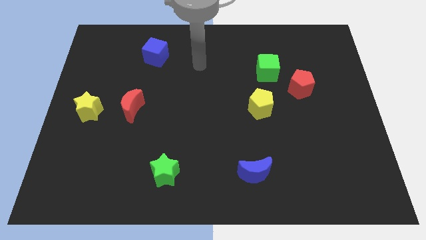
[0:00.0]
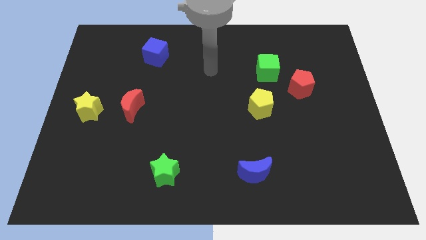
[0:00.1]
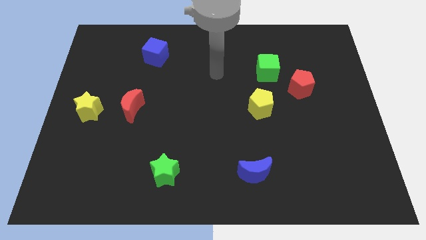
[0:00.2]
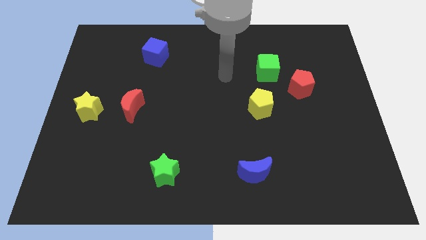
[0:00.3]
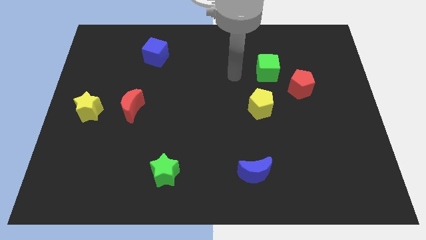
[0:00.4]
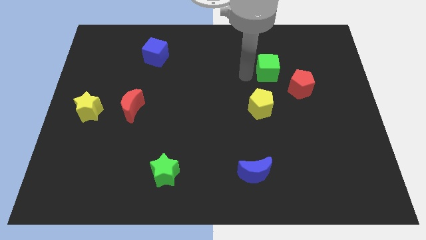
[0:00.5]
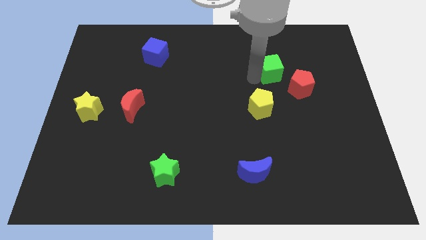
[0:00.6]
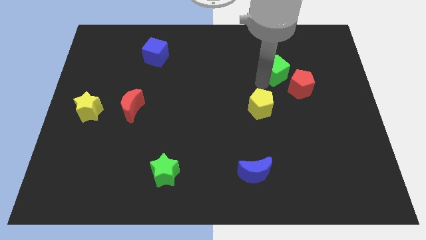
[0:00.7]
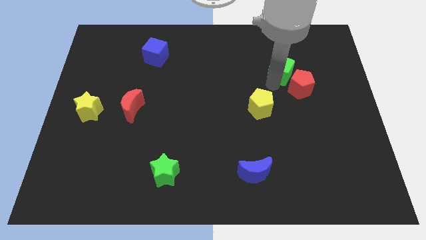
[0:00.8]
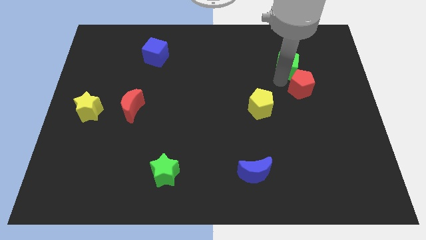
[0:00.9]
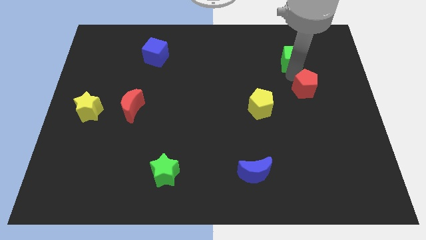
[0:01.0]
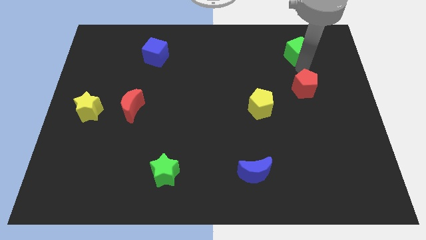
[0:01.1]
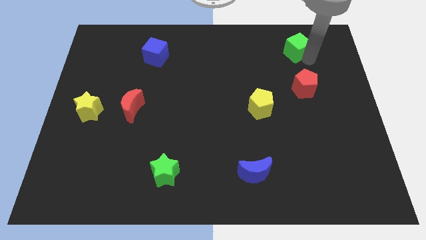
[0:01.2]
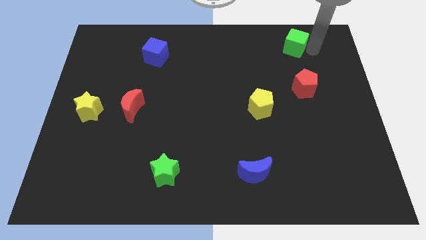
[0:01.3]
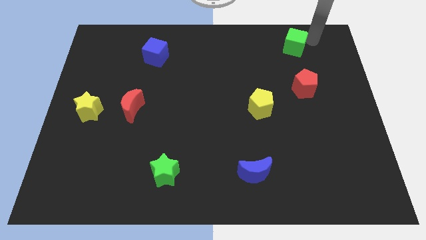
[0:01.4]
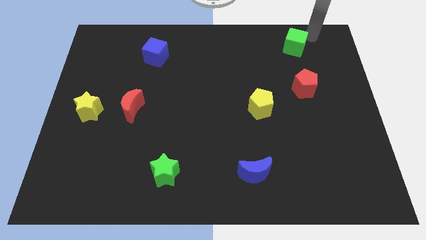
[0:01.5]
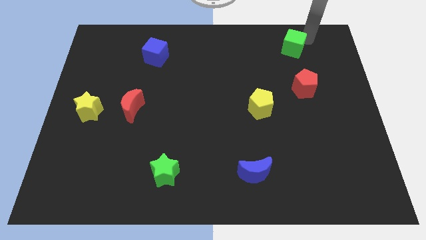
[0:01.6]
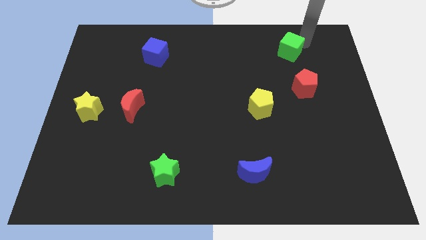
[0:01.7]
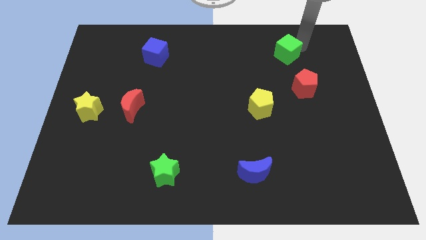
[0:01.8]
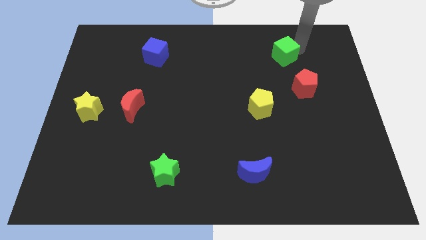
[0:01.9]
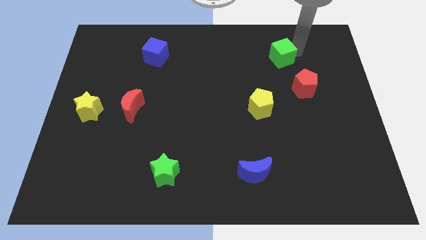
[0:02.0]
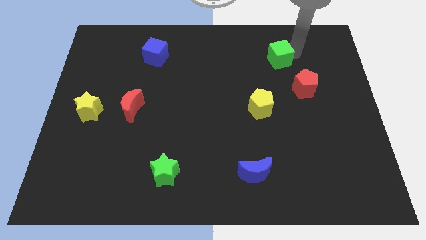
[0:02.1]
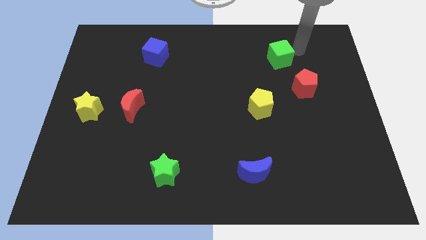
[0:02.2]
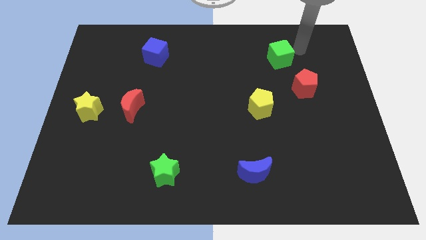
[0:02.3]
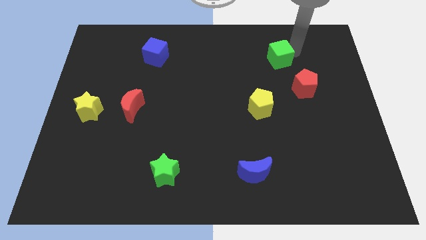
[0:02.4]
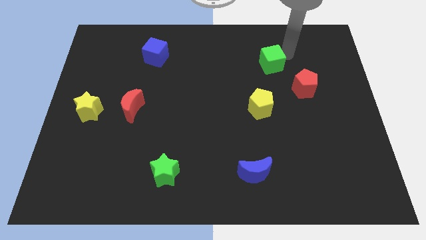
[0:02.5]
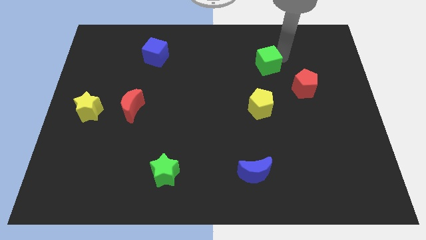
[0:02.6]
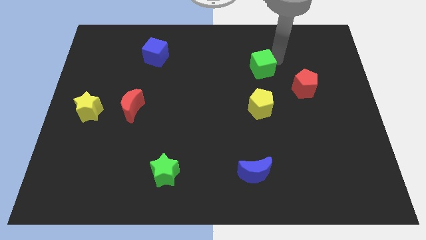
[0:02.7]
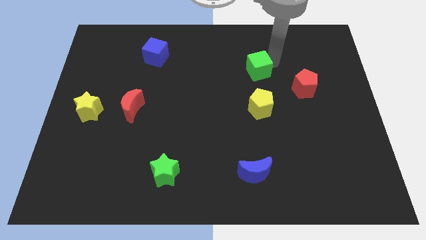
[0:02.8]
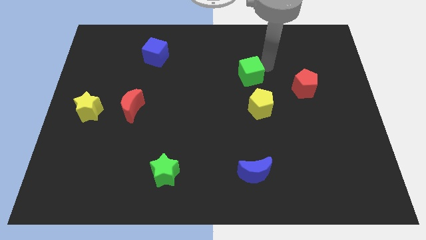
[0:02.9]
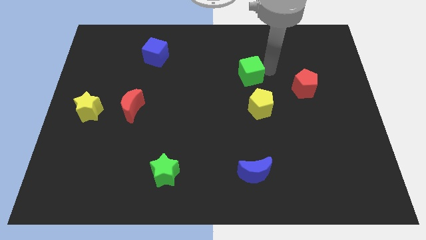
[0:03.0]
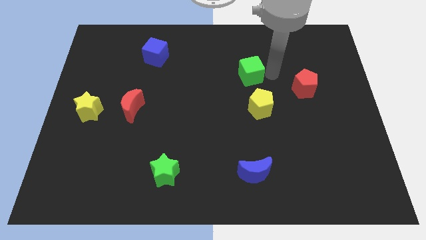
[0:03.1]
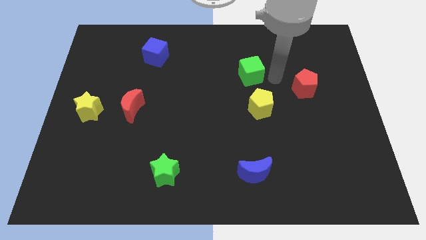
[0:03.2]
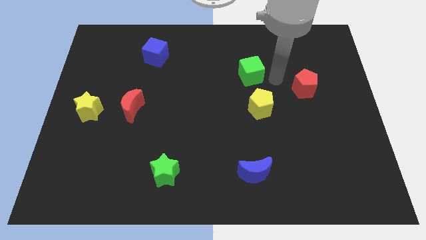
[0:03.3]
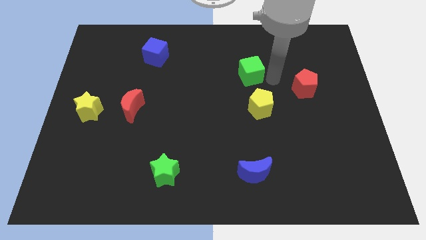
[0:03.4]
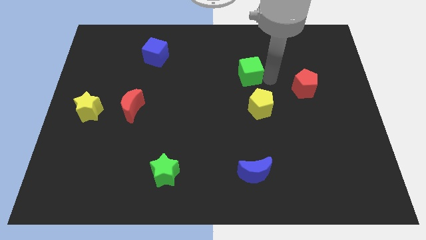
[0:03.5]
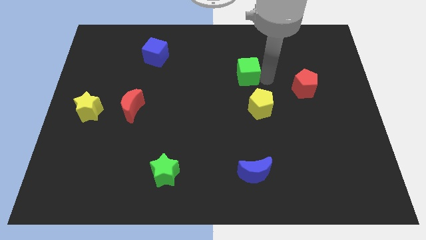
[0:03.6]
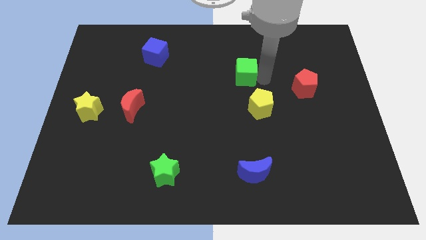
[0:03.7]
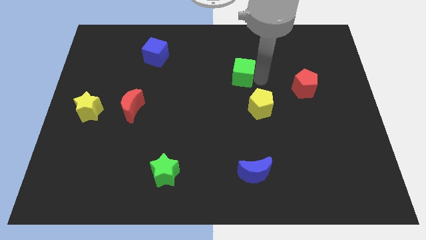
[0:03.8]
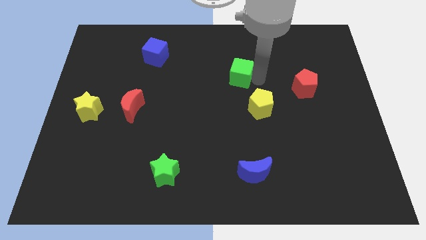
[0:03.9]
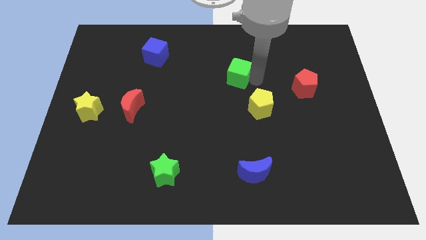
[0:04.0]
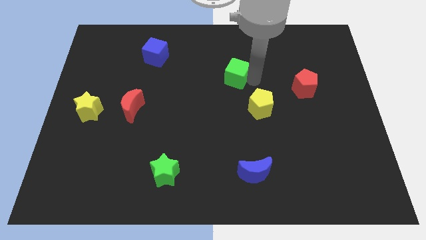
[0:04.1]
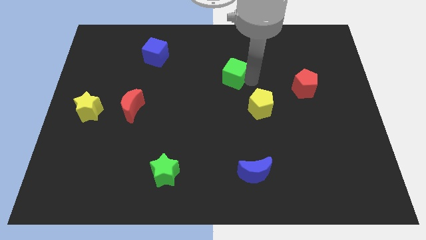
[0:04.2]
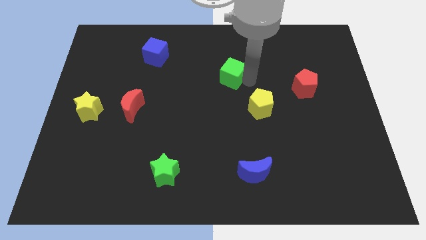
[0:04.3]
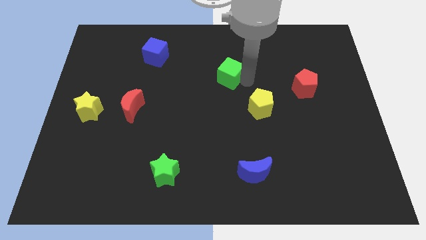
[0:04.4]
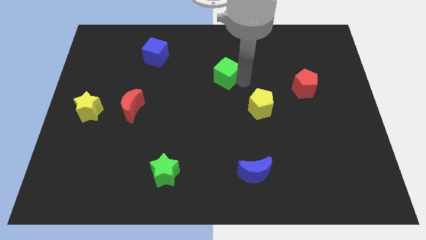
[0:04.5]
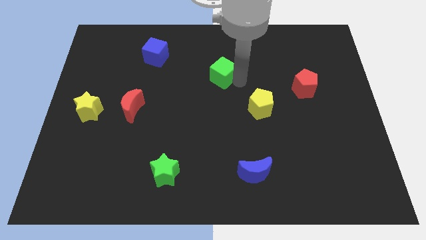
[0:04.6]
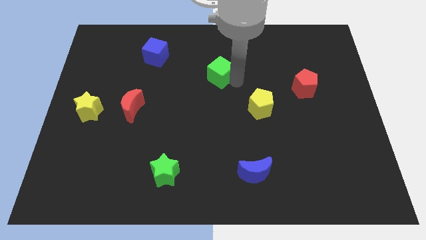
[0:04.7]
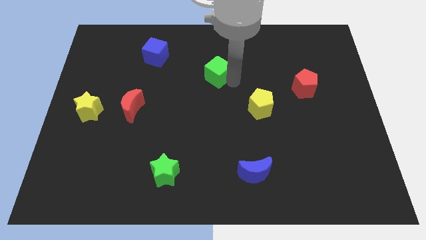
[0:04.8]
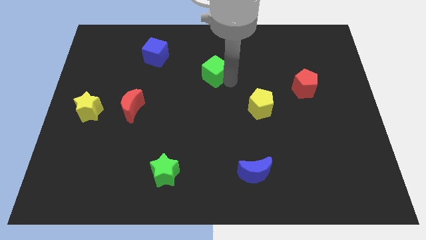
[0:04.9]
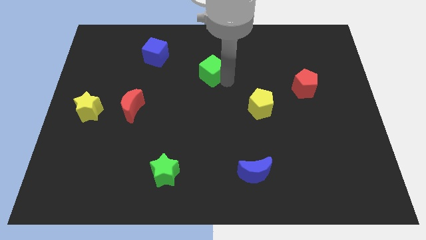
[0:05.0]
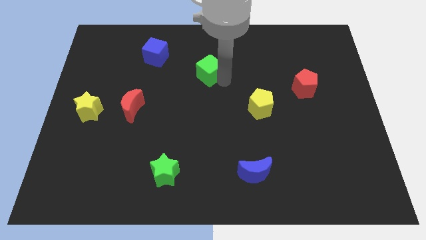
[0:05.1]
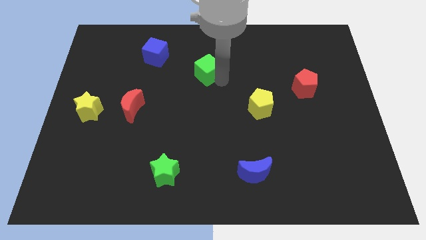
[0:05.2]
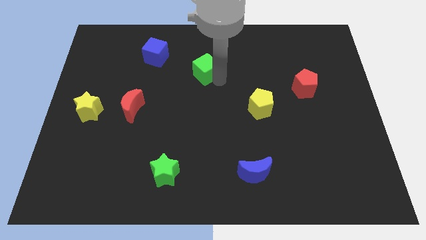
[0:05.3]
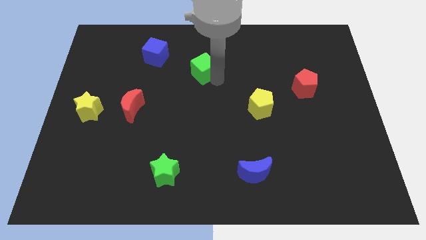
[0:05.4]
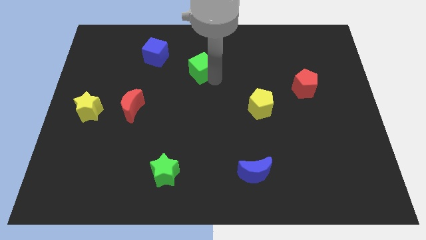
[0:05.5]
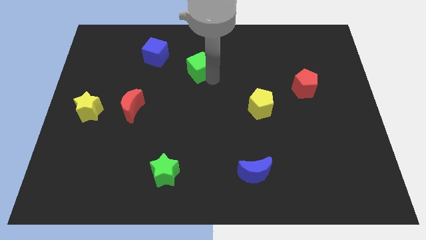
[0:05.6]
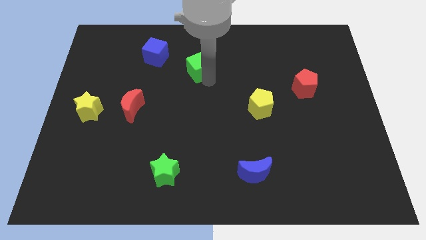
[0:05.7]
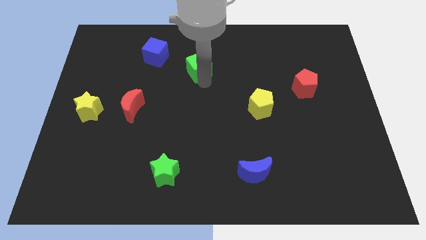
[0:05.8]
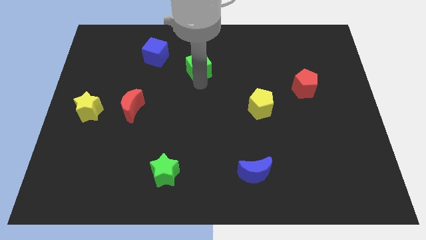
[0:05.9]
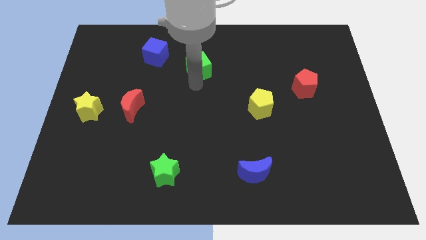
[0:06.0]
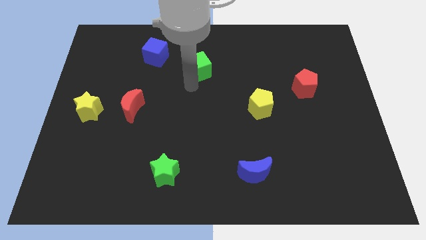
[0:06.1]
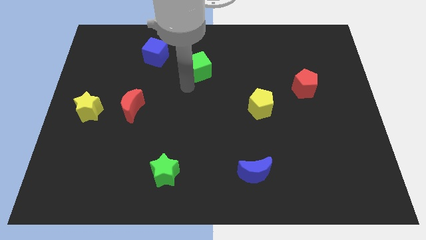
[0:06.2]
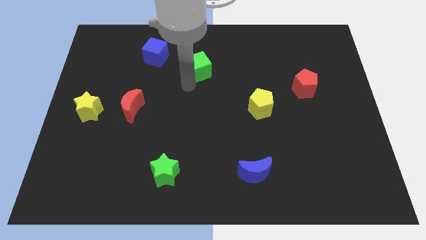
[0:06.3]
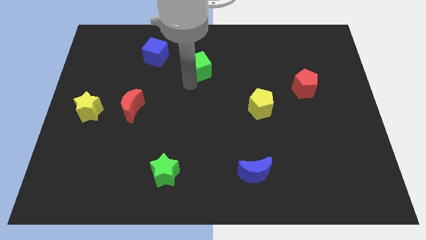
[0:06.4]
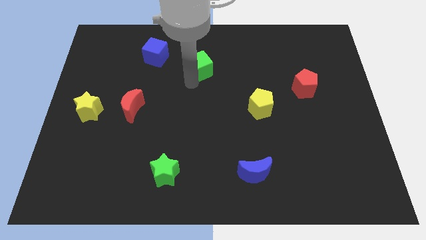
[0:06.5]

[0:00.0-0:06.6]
push the green cube right of the blue cube
